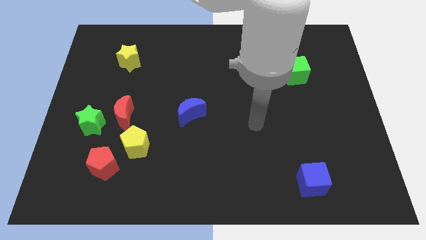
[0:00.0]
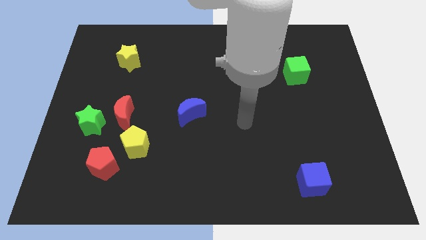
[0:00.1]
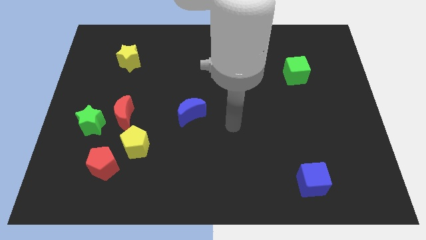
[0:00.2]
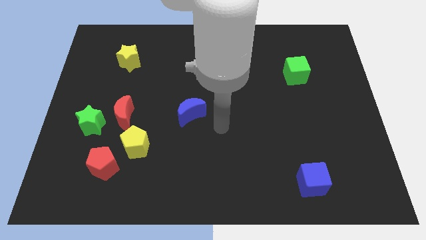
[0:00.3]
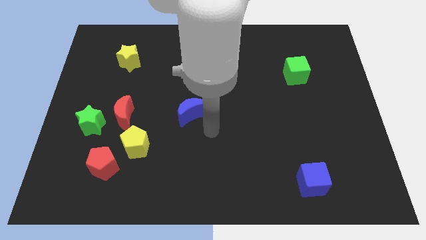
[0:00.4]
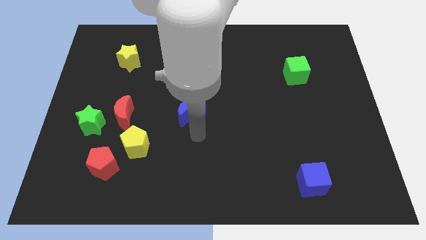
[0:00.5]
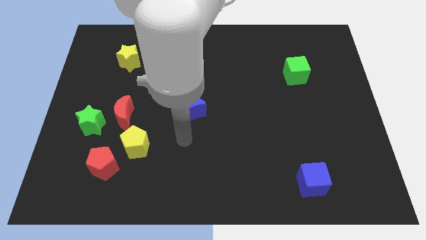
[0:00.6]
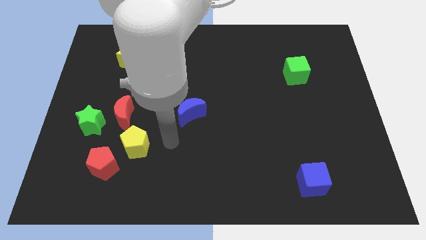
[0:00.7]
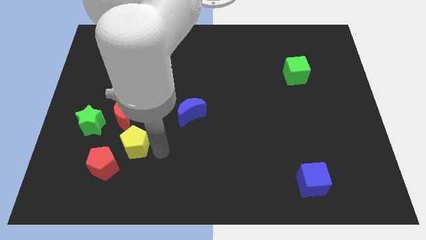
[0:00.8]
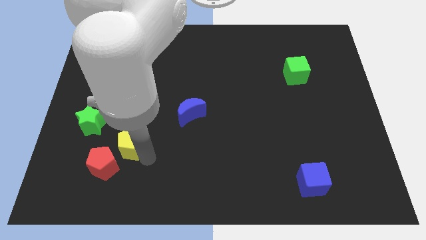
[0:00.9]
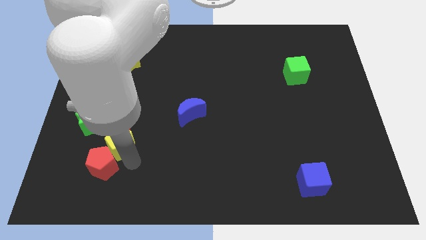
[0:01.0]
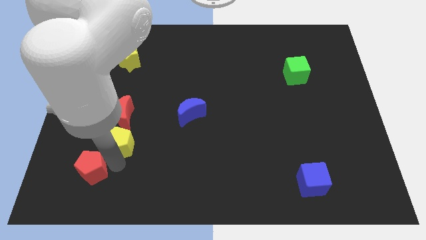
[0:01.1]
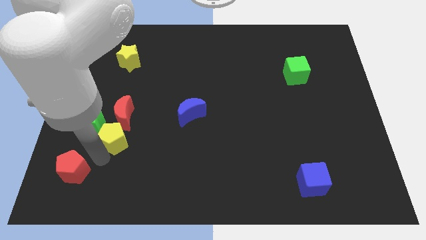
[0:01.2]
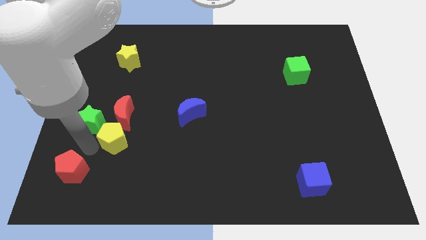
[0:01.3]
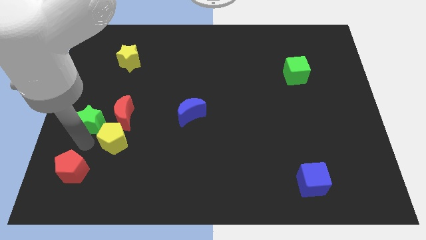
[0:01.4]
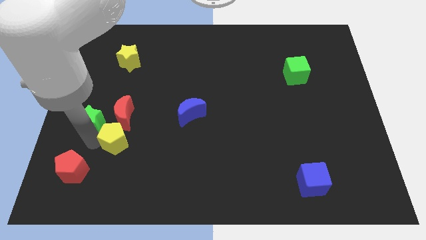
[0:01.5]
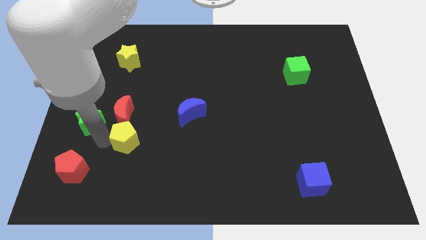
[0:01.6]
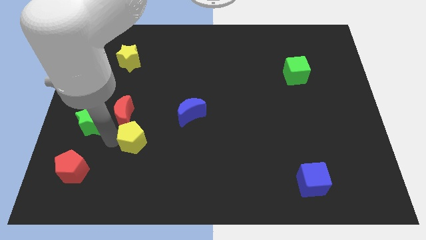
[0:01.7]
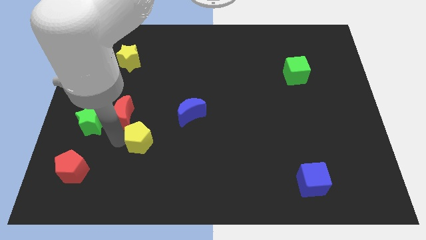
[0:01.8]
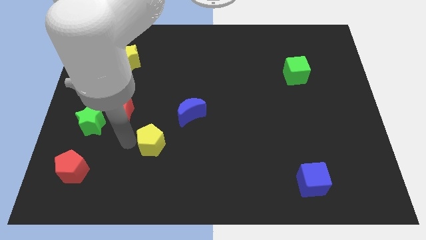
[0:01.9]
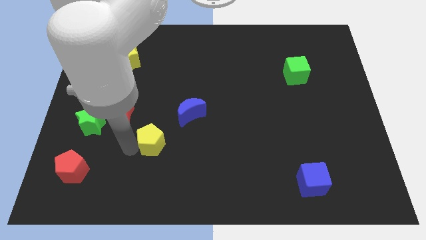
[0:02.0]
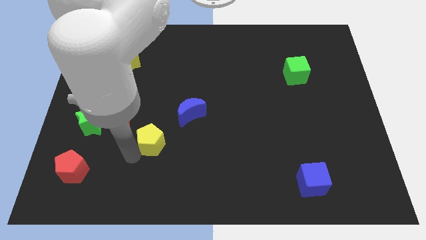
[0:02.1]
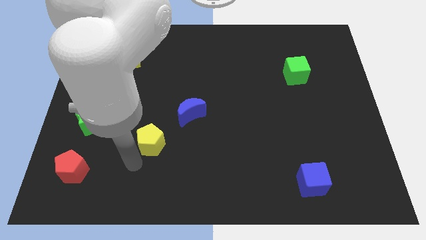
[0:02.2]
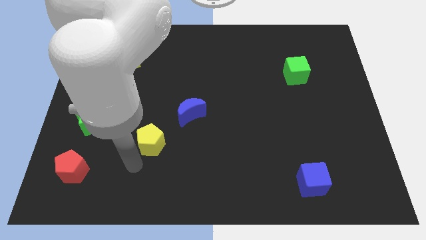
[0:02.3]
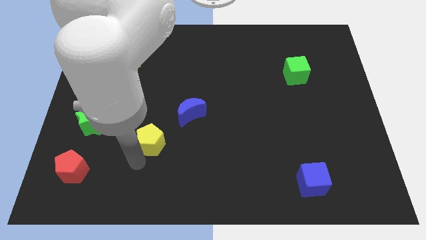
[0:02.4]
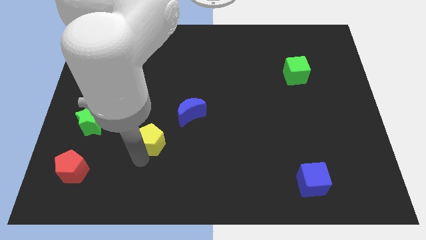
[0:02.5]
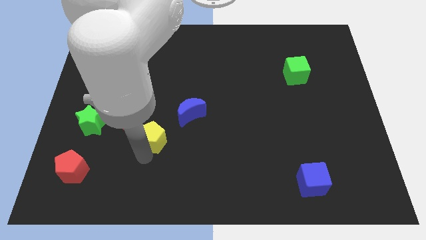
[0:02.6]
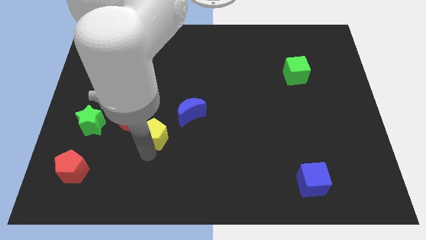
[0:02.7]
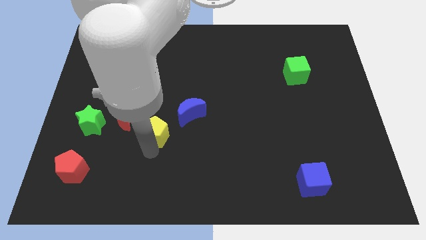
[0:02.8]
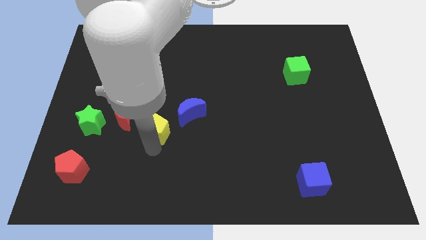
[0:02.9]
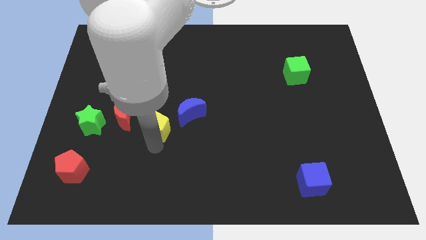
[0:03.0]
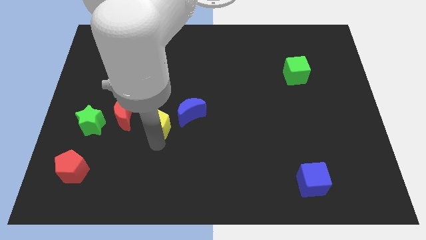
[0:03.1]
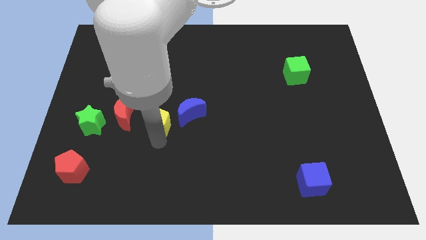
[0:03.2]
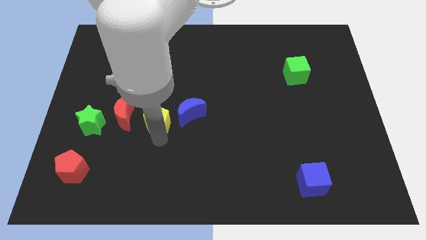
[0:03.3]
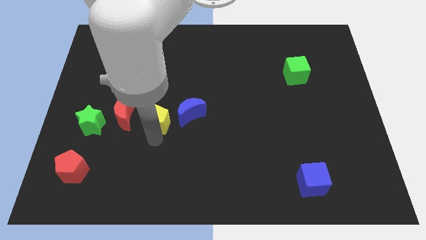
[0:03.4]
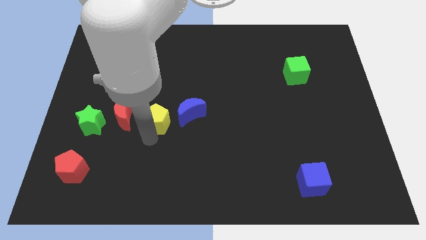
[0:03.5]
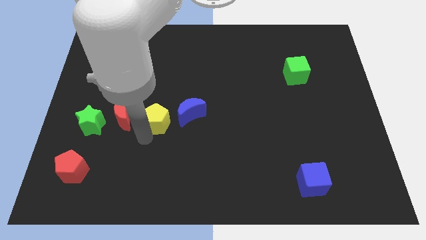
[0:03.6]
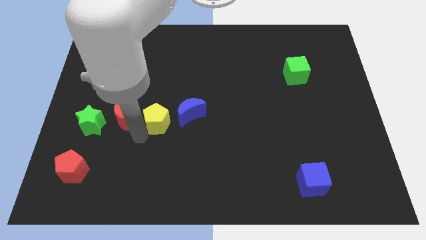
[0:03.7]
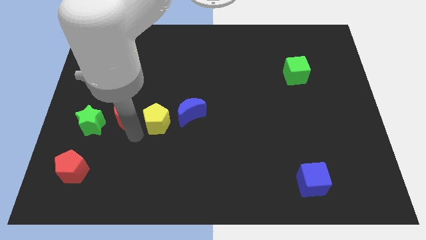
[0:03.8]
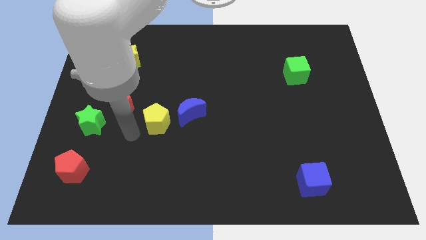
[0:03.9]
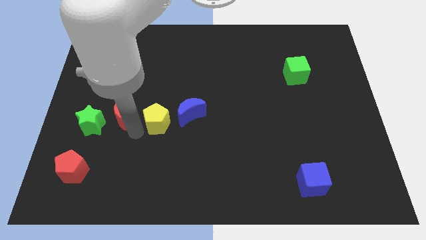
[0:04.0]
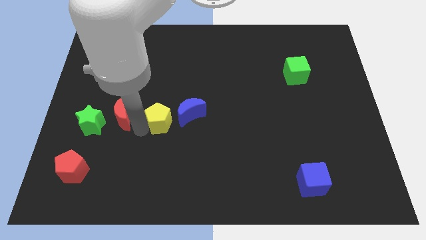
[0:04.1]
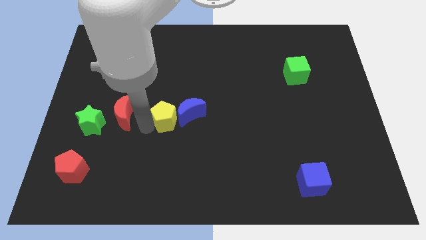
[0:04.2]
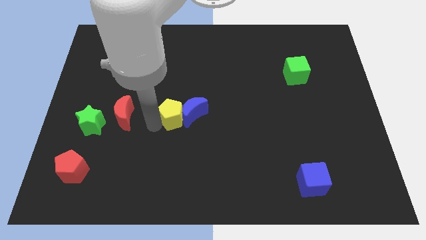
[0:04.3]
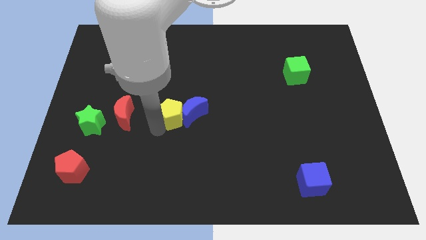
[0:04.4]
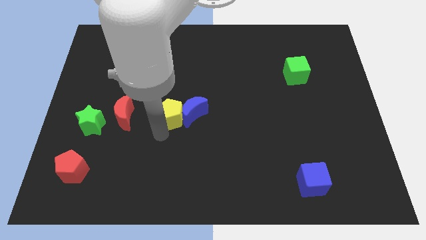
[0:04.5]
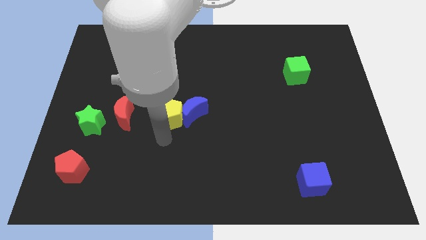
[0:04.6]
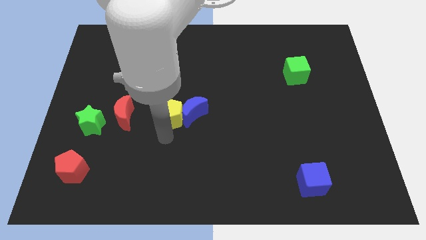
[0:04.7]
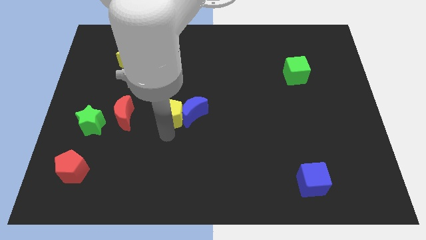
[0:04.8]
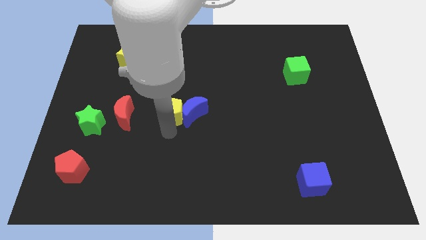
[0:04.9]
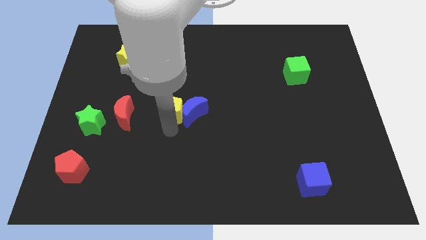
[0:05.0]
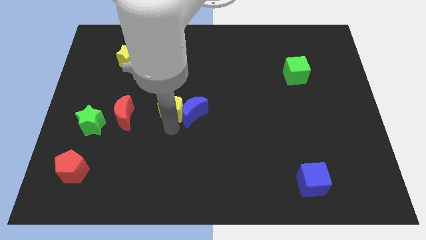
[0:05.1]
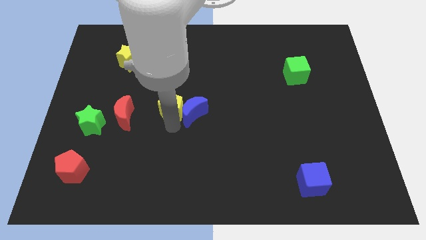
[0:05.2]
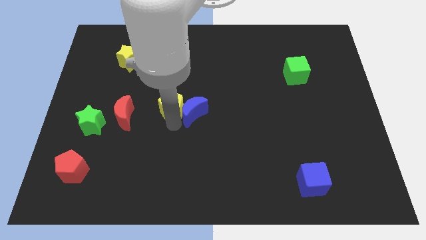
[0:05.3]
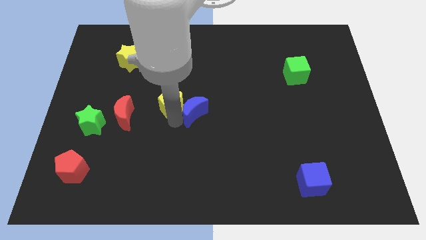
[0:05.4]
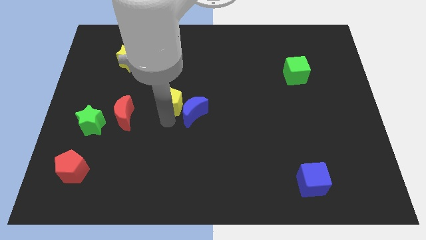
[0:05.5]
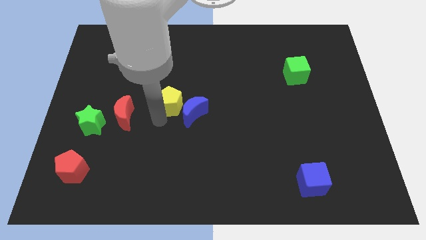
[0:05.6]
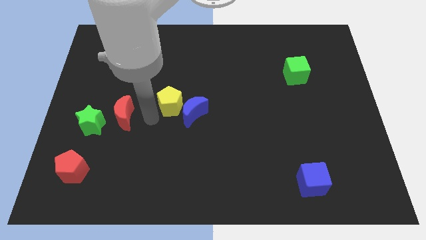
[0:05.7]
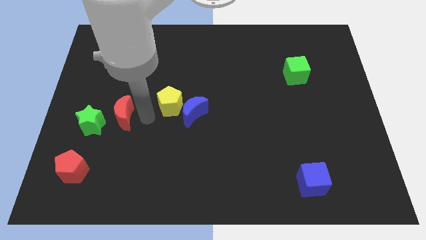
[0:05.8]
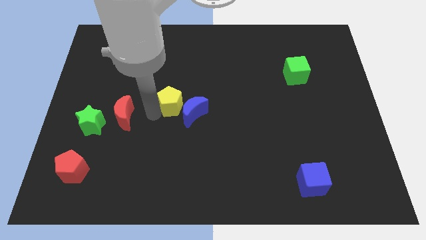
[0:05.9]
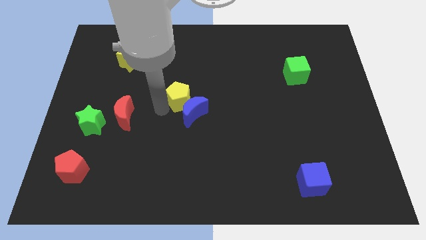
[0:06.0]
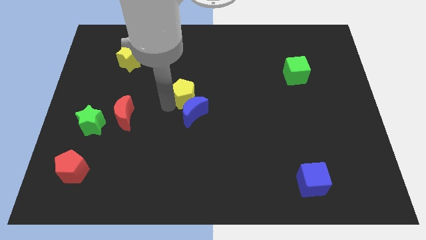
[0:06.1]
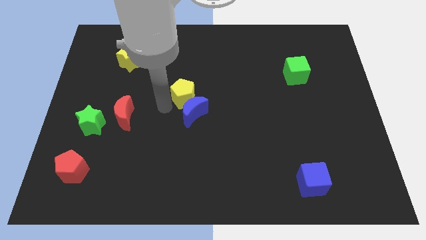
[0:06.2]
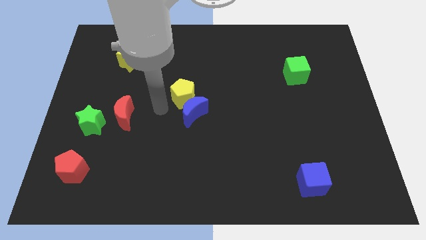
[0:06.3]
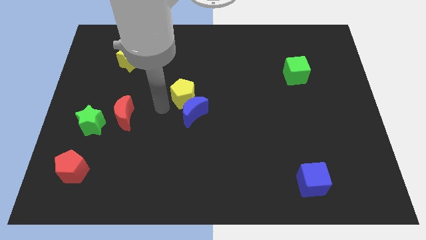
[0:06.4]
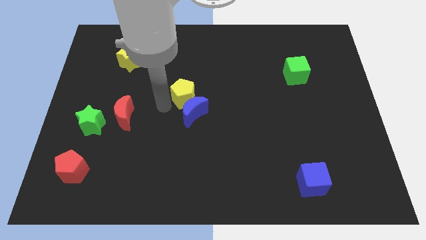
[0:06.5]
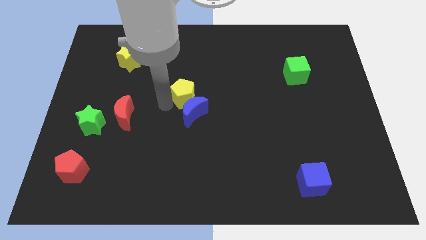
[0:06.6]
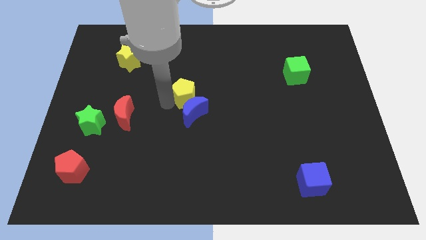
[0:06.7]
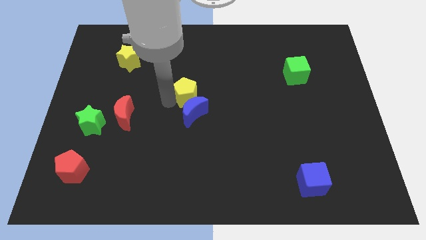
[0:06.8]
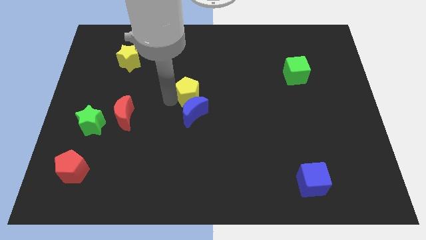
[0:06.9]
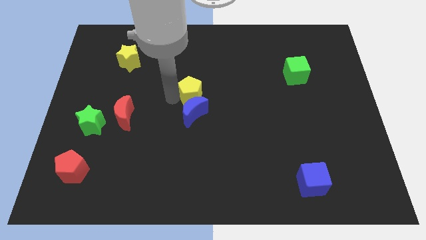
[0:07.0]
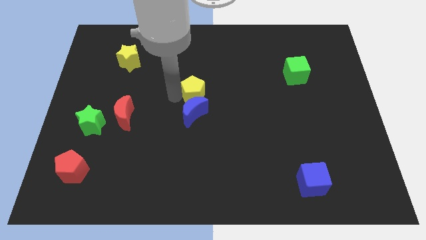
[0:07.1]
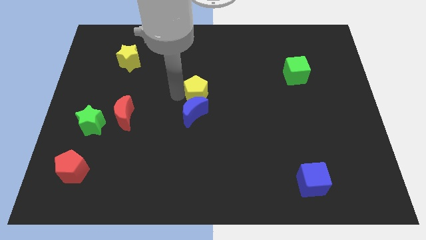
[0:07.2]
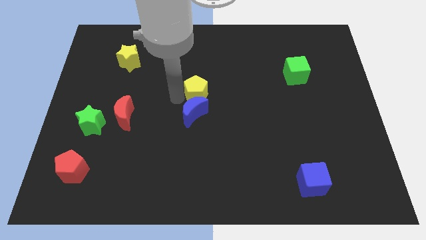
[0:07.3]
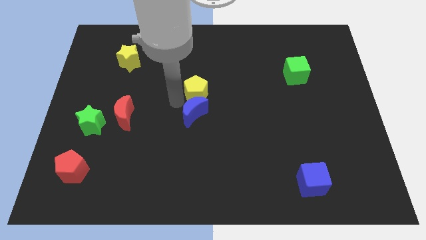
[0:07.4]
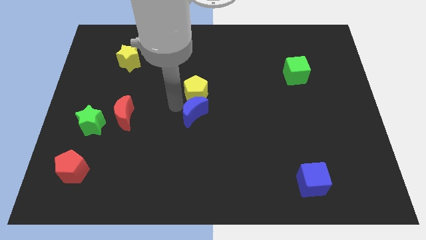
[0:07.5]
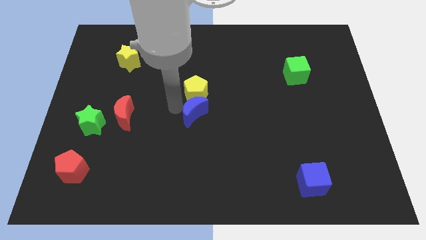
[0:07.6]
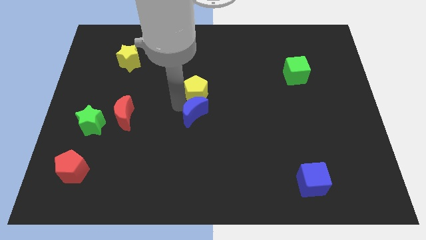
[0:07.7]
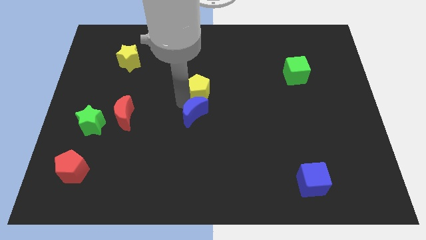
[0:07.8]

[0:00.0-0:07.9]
slide the yellow pentagon diagonally up and right
